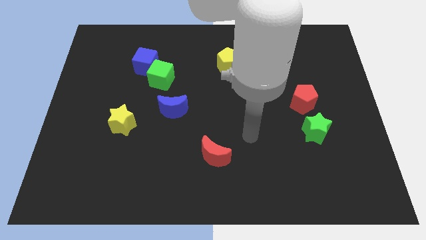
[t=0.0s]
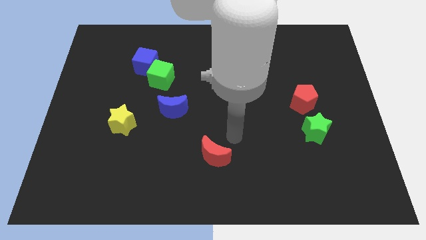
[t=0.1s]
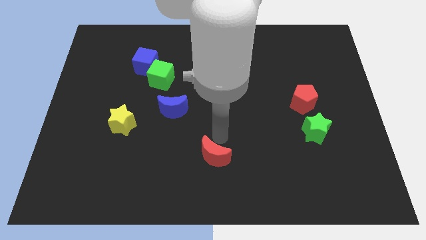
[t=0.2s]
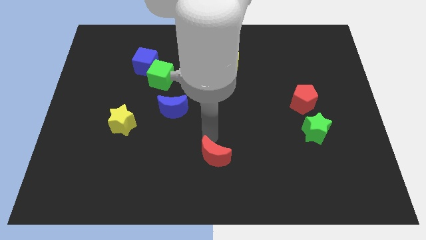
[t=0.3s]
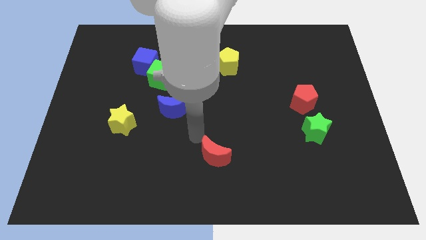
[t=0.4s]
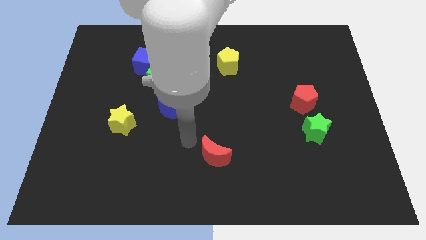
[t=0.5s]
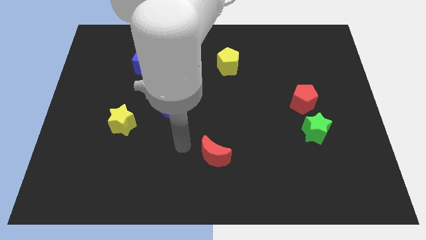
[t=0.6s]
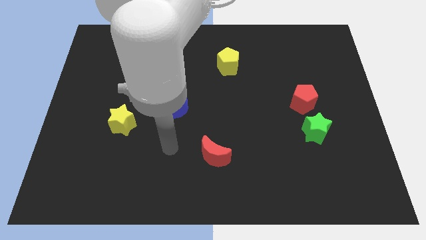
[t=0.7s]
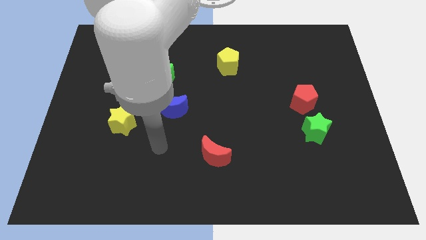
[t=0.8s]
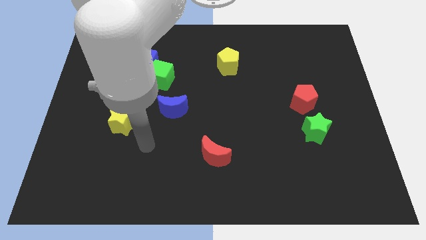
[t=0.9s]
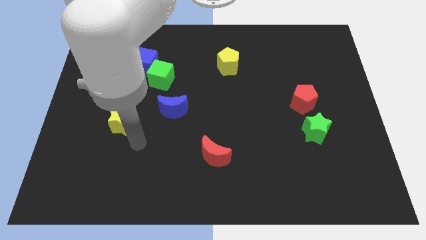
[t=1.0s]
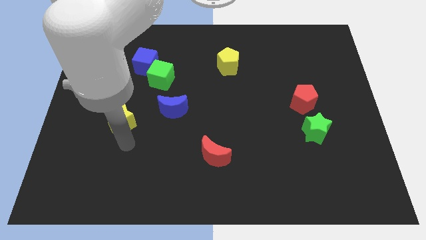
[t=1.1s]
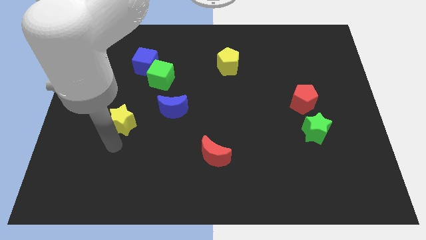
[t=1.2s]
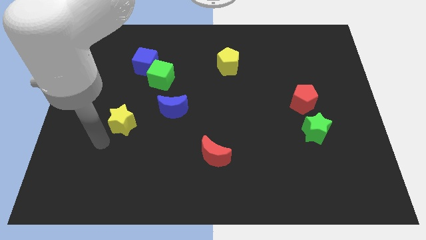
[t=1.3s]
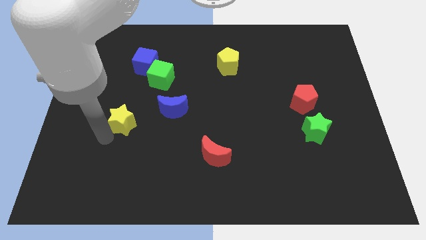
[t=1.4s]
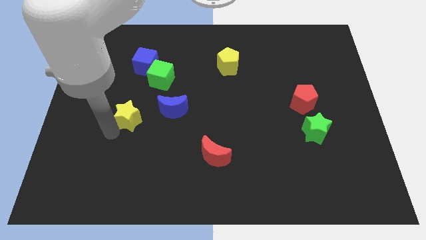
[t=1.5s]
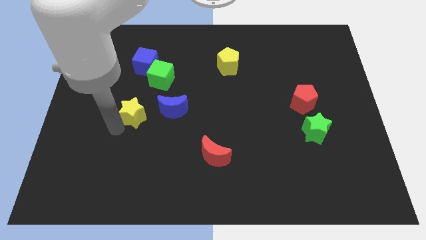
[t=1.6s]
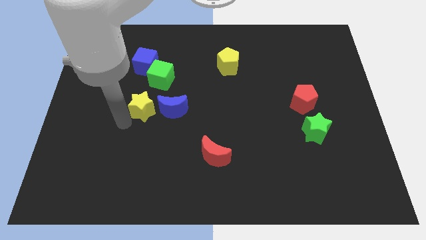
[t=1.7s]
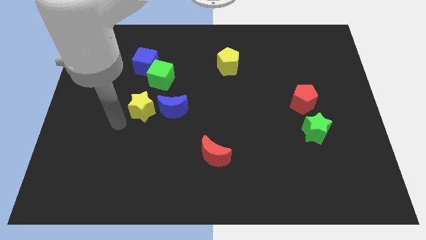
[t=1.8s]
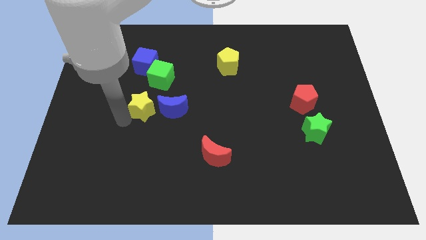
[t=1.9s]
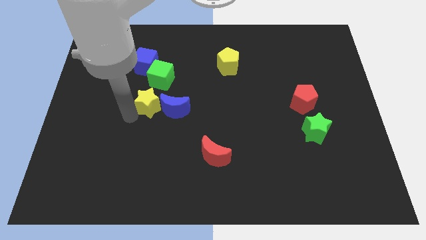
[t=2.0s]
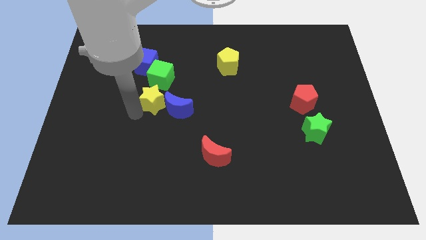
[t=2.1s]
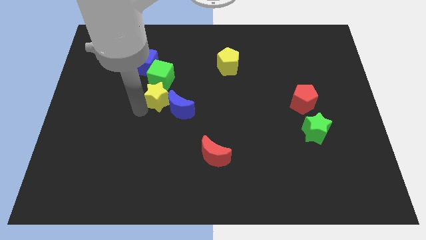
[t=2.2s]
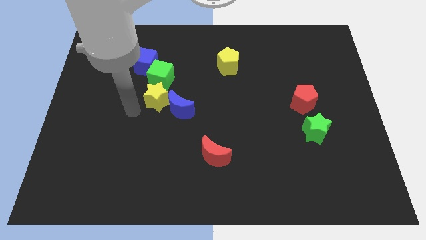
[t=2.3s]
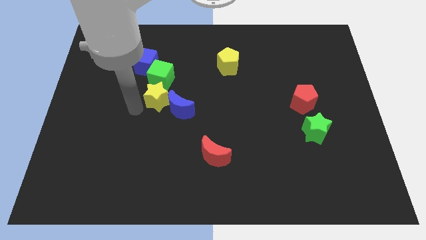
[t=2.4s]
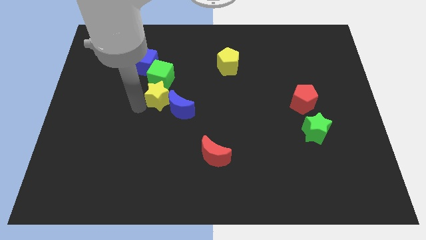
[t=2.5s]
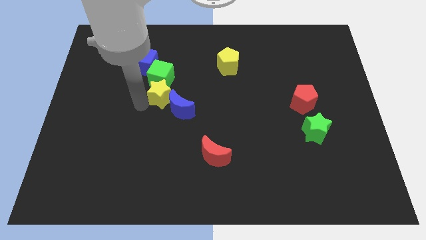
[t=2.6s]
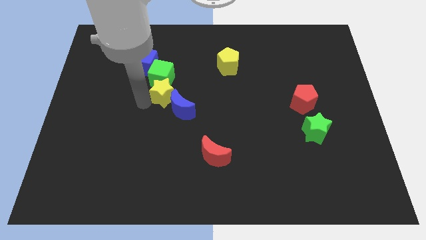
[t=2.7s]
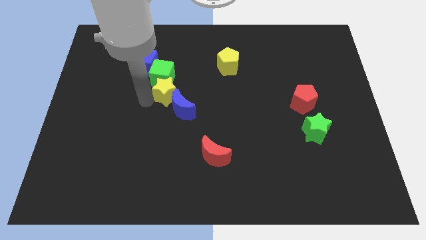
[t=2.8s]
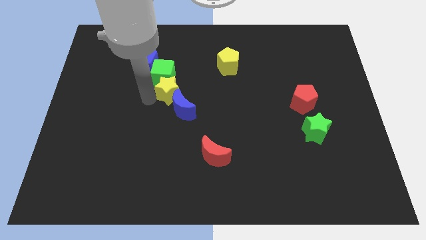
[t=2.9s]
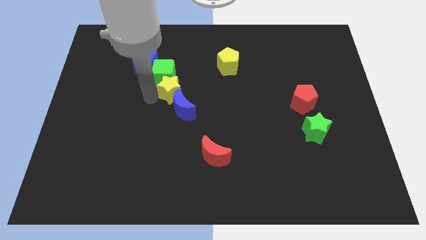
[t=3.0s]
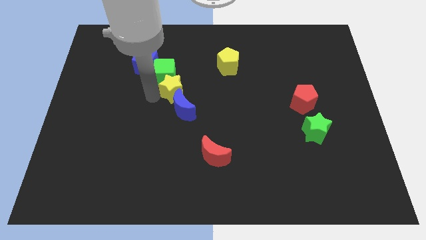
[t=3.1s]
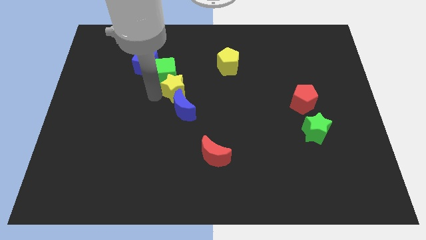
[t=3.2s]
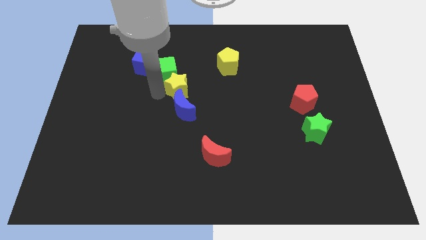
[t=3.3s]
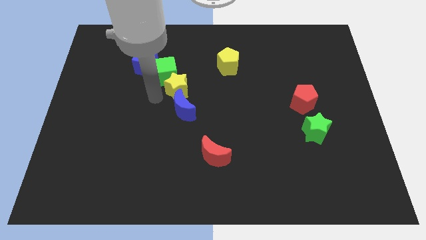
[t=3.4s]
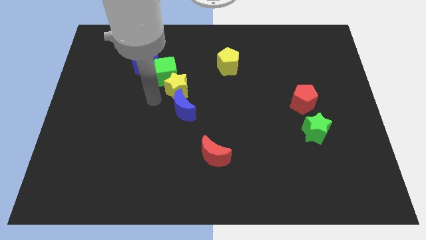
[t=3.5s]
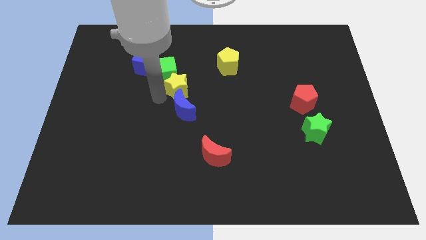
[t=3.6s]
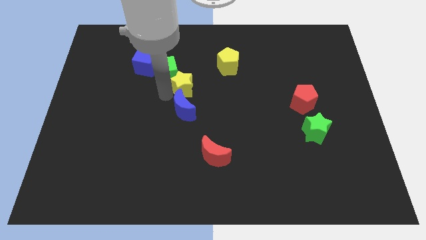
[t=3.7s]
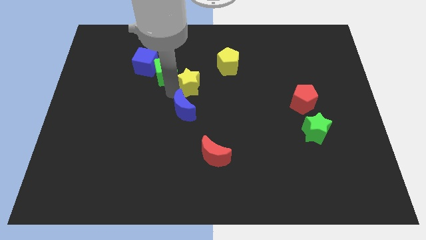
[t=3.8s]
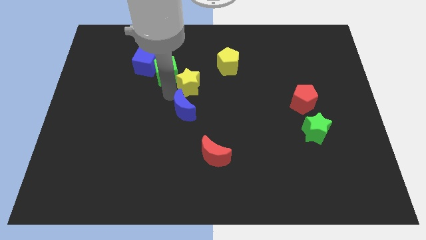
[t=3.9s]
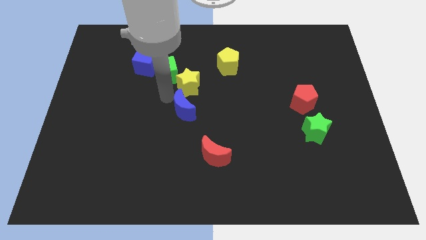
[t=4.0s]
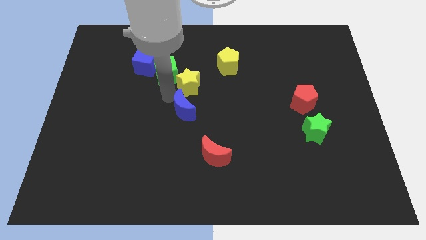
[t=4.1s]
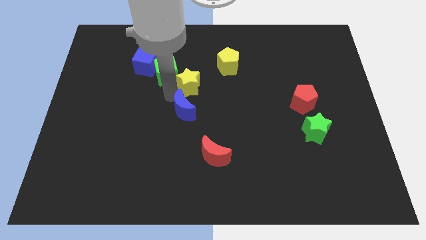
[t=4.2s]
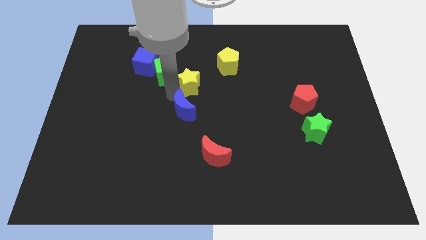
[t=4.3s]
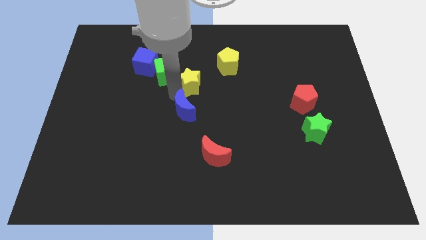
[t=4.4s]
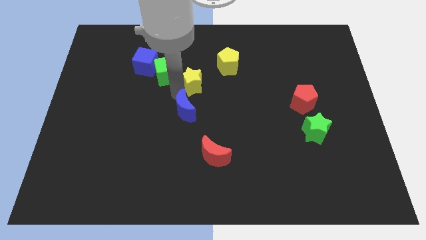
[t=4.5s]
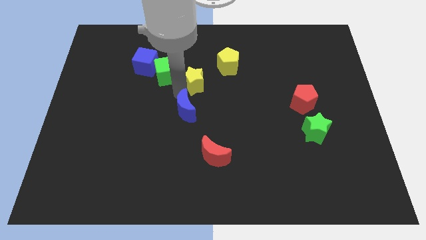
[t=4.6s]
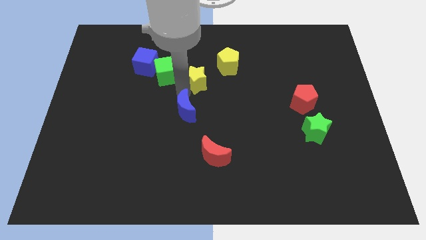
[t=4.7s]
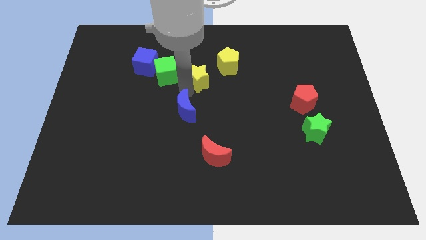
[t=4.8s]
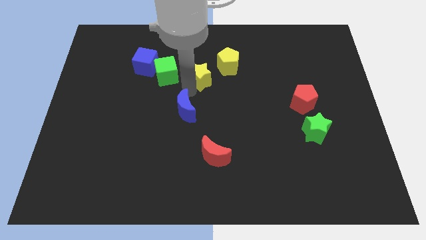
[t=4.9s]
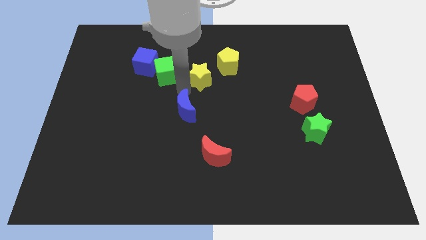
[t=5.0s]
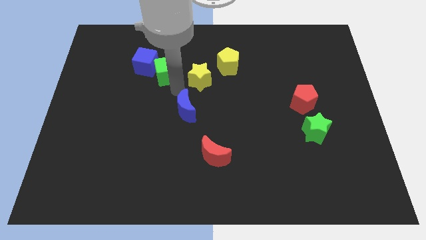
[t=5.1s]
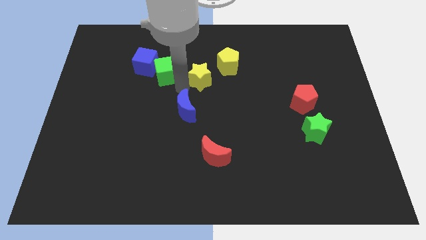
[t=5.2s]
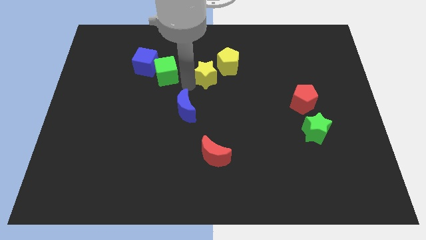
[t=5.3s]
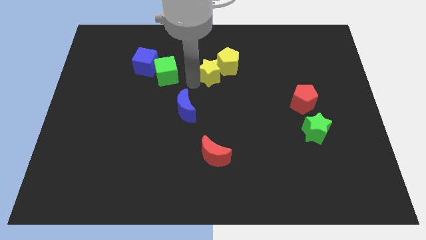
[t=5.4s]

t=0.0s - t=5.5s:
slide the yellow star close to the yellow pentagon

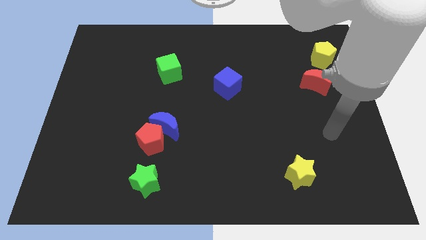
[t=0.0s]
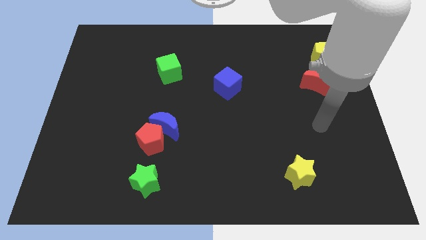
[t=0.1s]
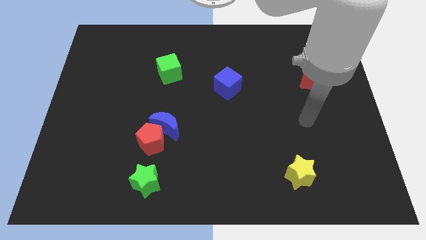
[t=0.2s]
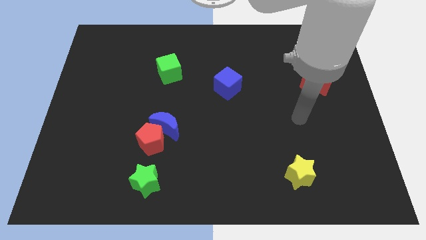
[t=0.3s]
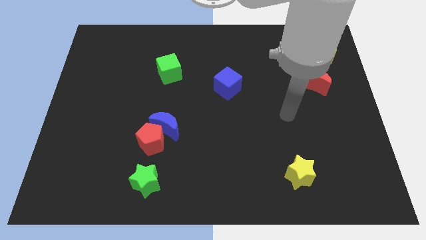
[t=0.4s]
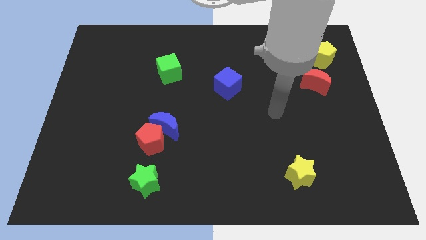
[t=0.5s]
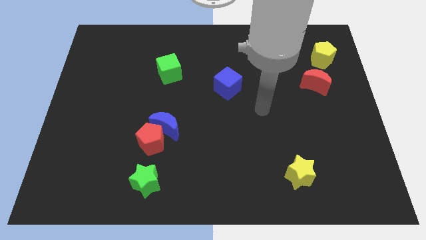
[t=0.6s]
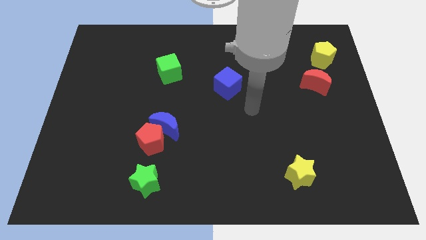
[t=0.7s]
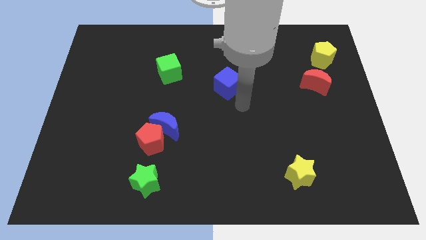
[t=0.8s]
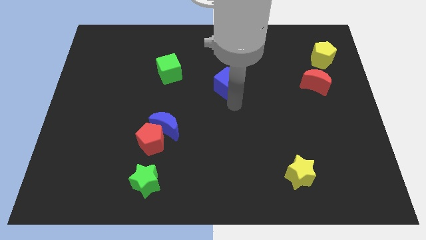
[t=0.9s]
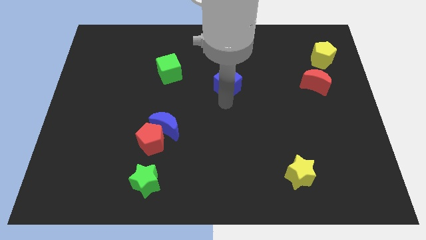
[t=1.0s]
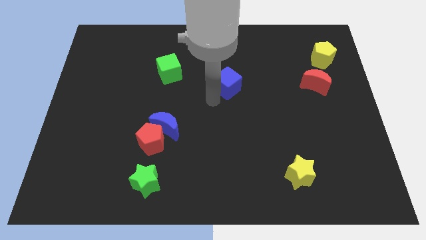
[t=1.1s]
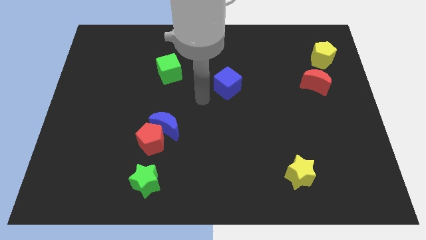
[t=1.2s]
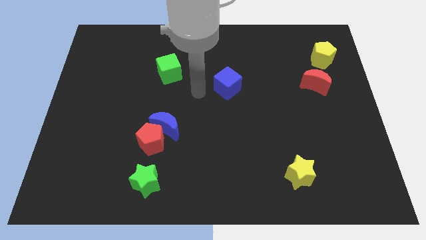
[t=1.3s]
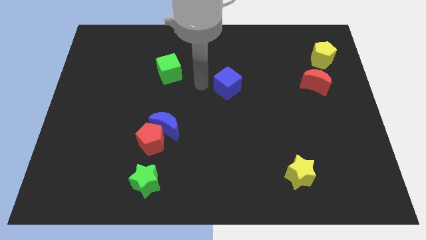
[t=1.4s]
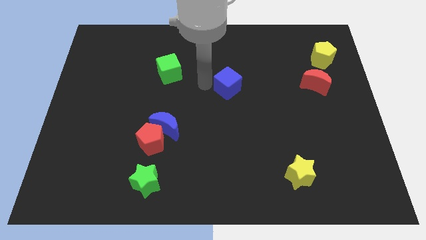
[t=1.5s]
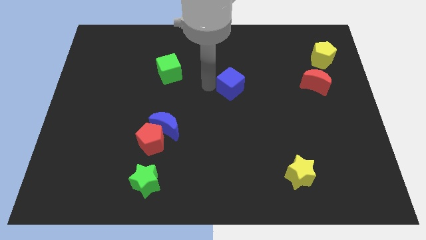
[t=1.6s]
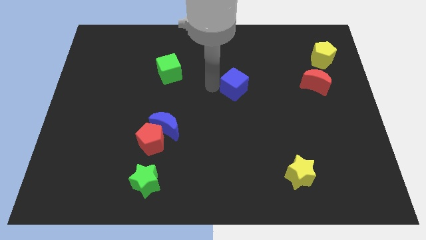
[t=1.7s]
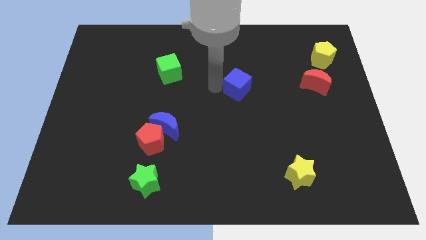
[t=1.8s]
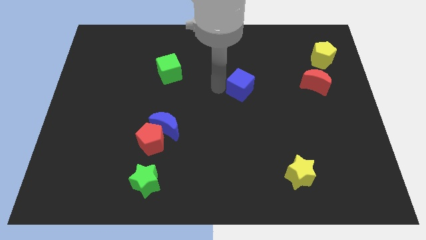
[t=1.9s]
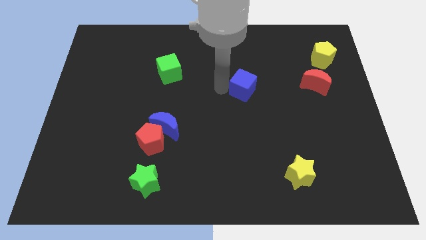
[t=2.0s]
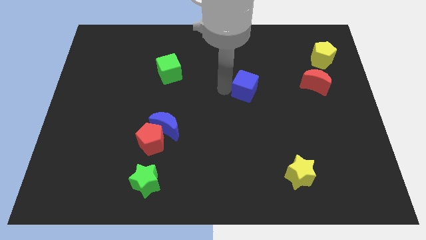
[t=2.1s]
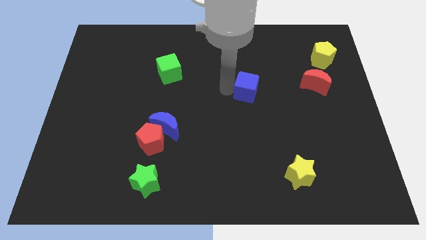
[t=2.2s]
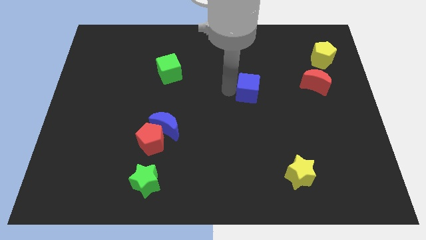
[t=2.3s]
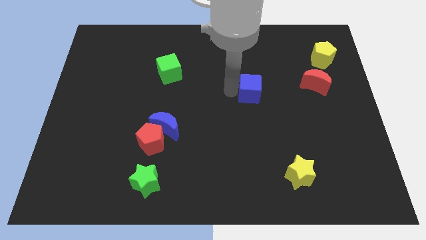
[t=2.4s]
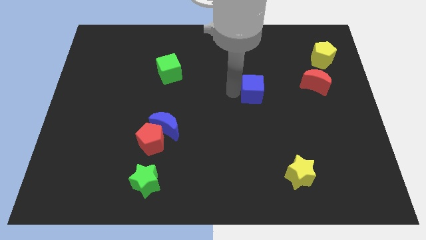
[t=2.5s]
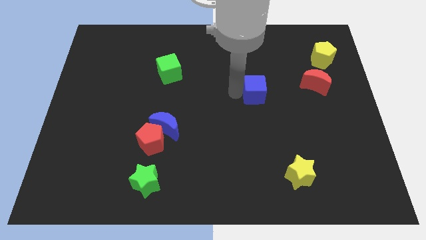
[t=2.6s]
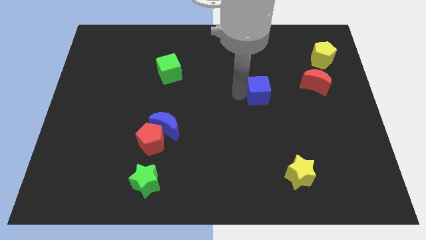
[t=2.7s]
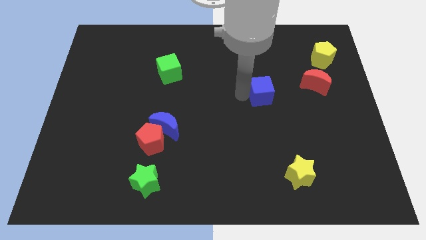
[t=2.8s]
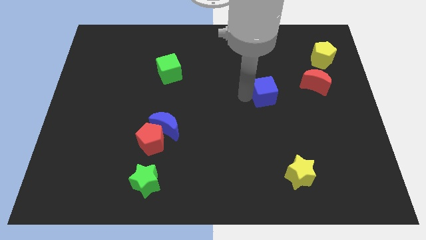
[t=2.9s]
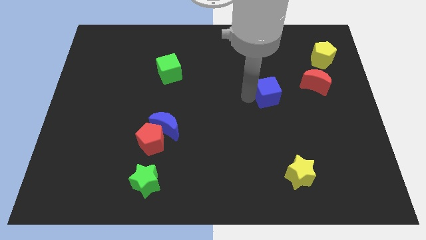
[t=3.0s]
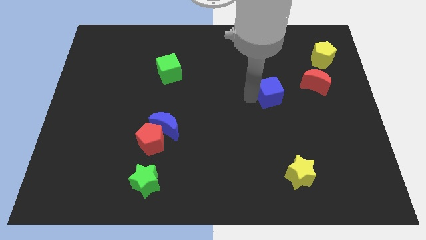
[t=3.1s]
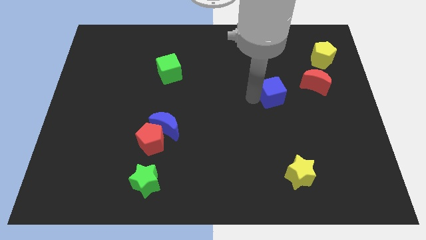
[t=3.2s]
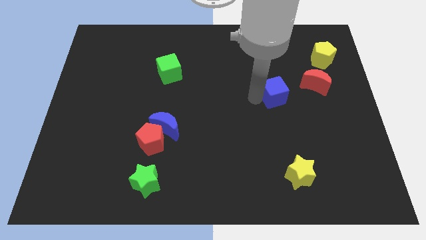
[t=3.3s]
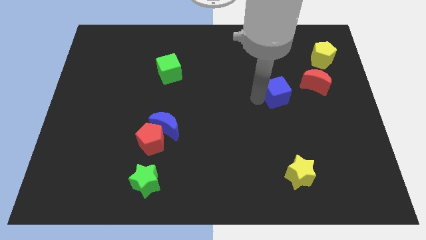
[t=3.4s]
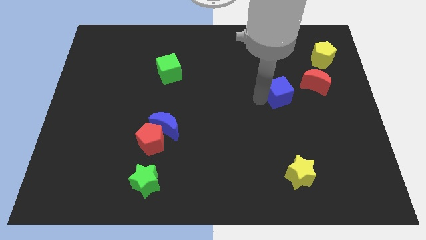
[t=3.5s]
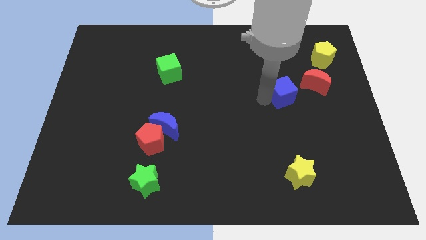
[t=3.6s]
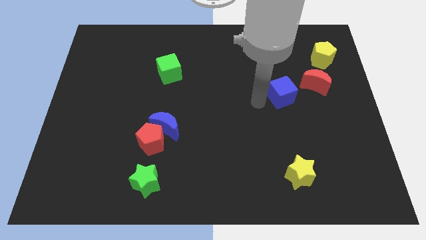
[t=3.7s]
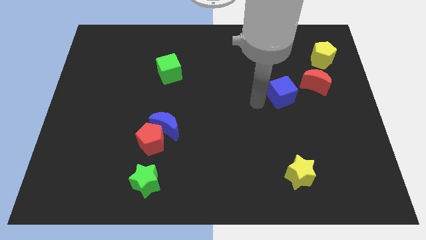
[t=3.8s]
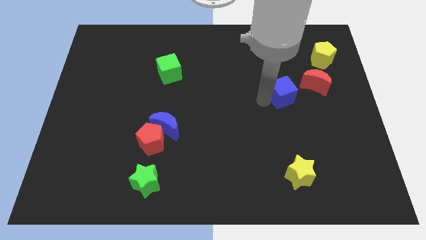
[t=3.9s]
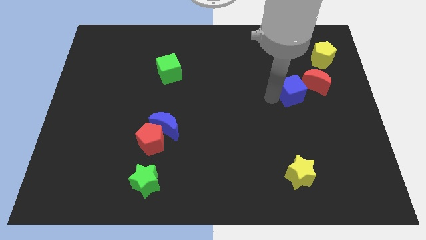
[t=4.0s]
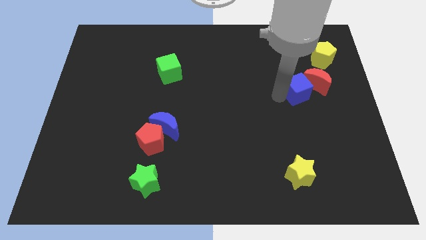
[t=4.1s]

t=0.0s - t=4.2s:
put the blue cube next to the red moon
